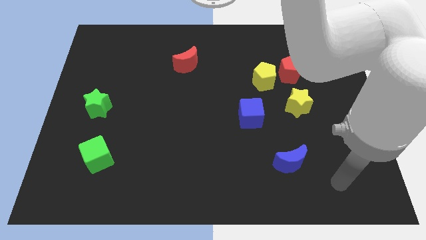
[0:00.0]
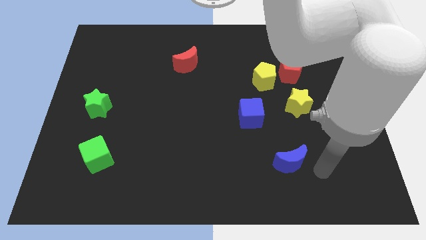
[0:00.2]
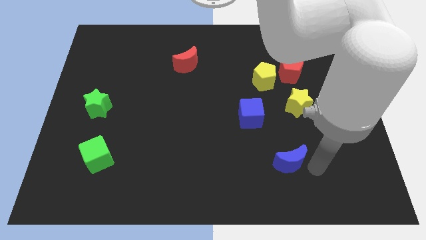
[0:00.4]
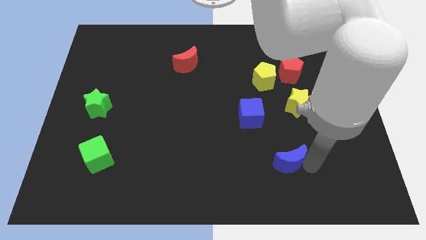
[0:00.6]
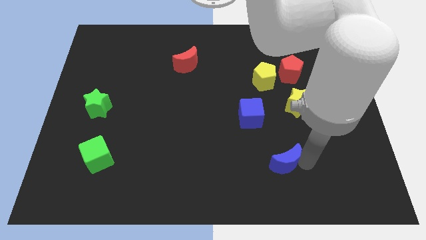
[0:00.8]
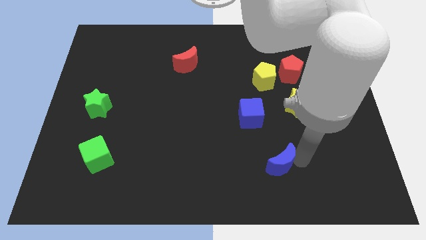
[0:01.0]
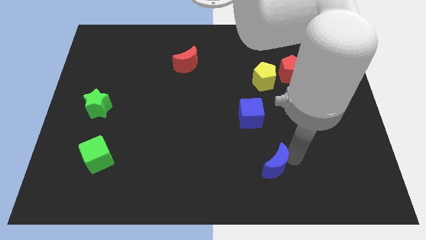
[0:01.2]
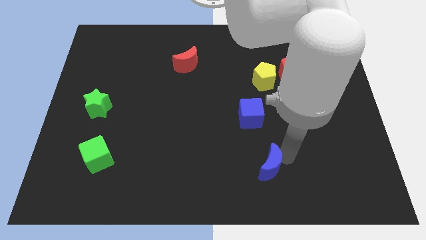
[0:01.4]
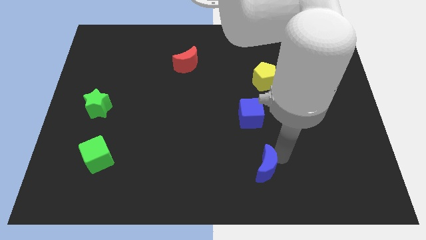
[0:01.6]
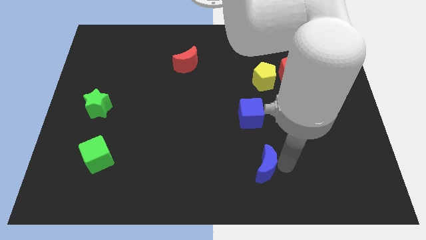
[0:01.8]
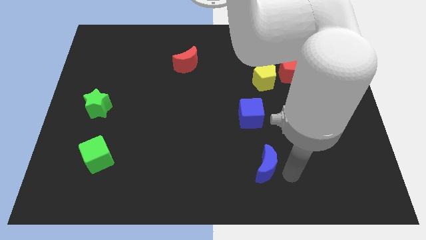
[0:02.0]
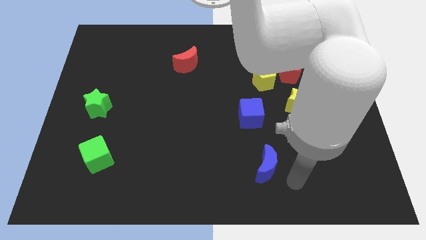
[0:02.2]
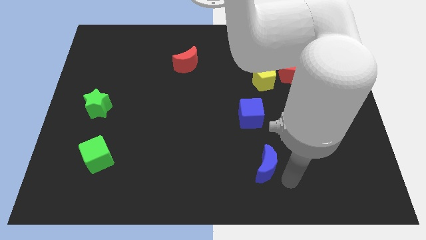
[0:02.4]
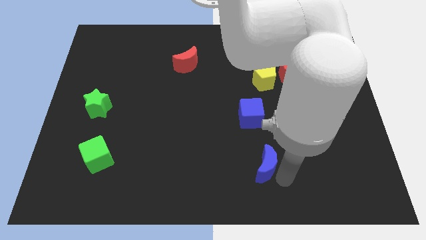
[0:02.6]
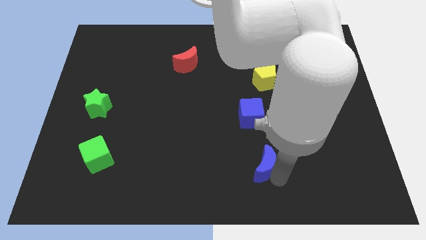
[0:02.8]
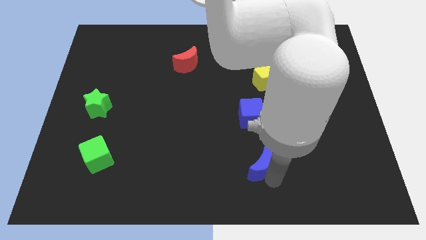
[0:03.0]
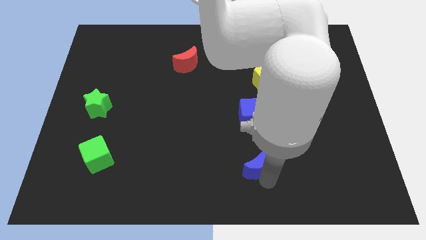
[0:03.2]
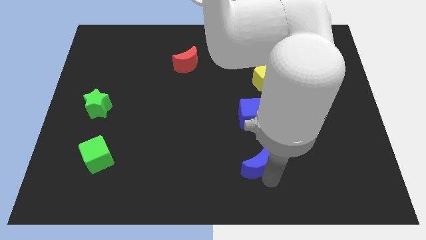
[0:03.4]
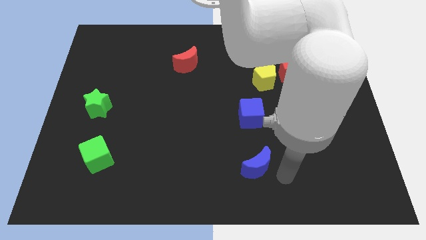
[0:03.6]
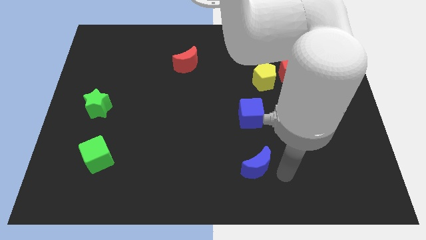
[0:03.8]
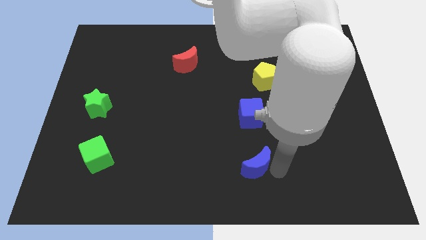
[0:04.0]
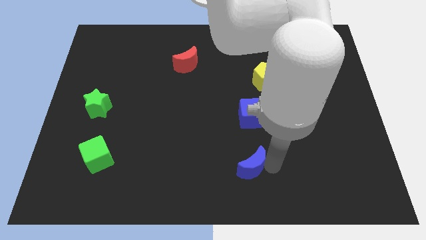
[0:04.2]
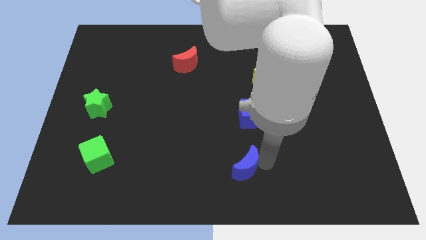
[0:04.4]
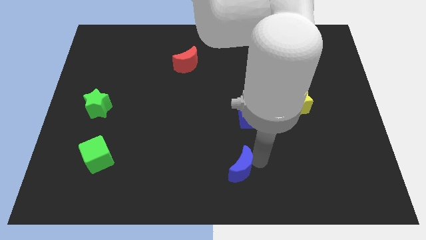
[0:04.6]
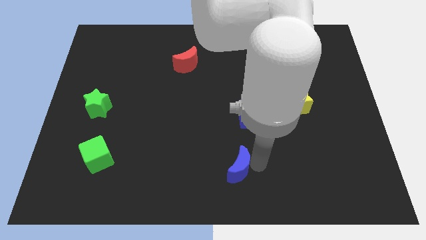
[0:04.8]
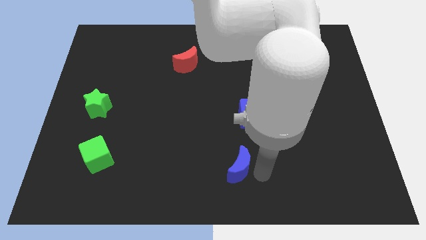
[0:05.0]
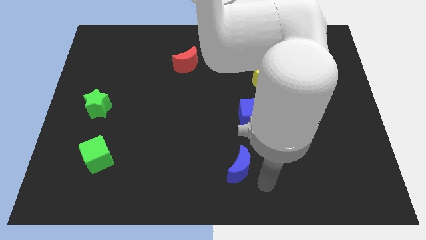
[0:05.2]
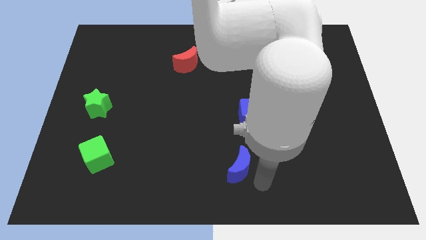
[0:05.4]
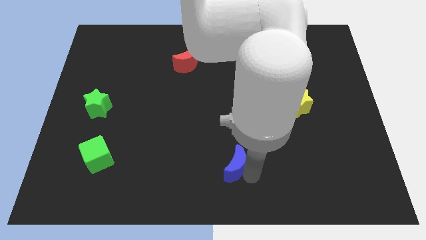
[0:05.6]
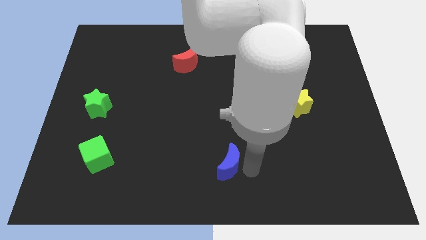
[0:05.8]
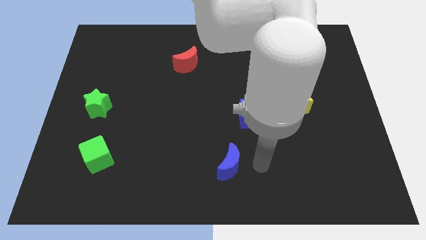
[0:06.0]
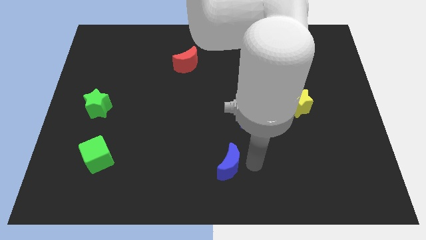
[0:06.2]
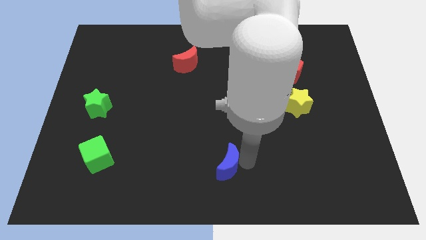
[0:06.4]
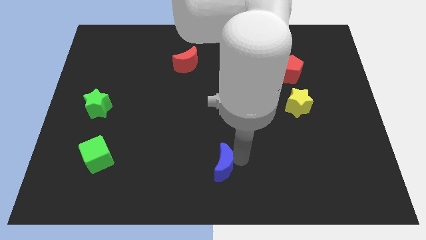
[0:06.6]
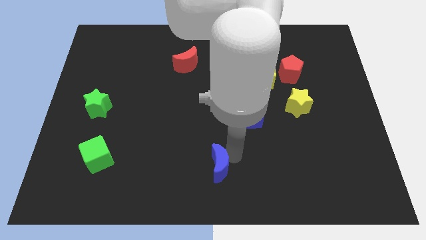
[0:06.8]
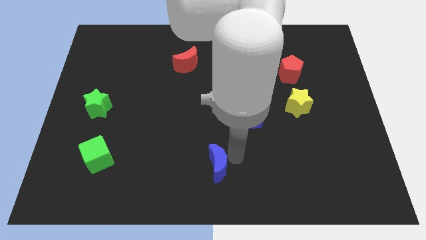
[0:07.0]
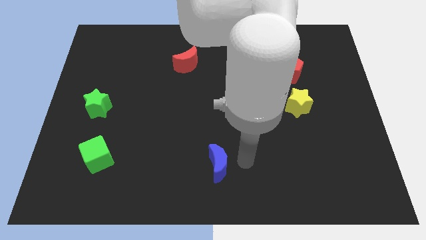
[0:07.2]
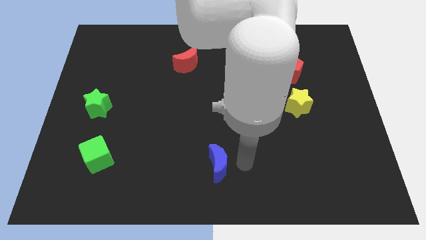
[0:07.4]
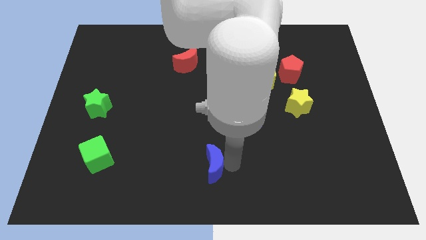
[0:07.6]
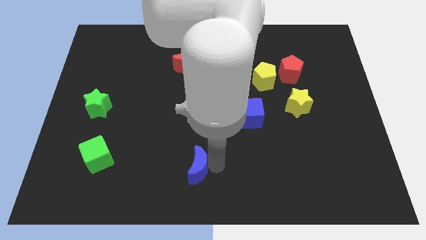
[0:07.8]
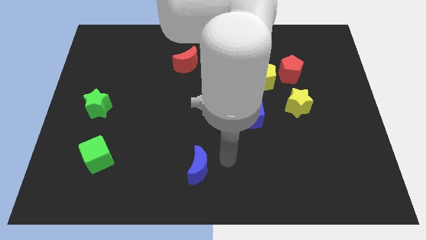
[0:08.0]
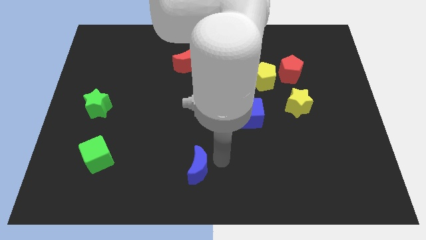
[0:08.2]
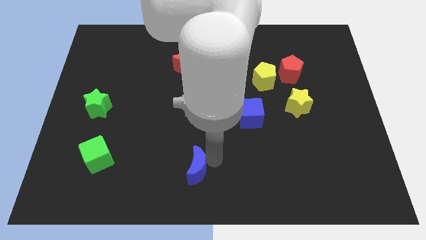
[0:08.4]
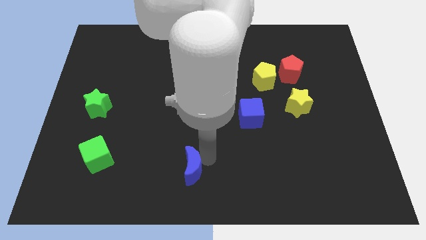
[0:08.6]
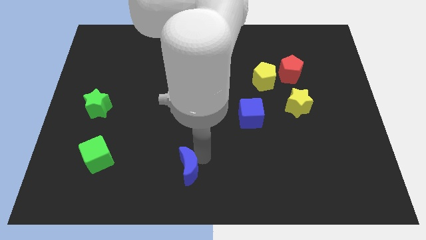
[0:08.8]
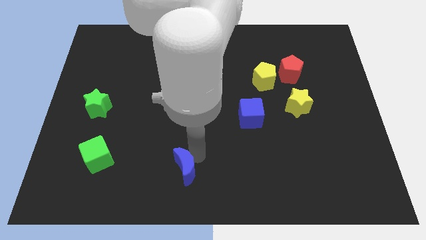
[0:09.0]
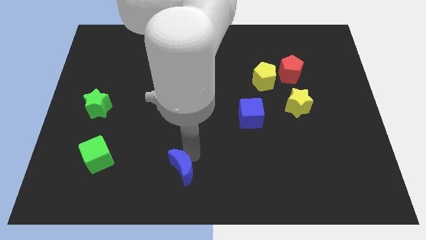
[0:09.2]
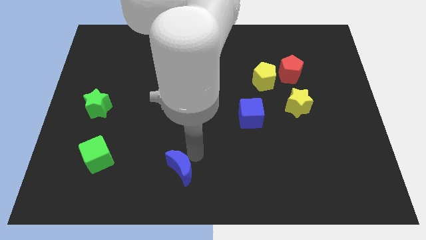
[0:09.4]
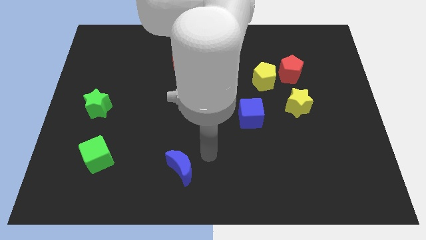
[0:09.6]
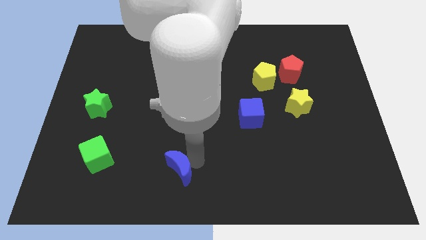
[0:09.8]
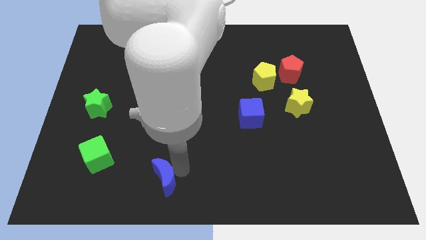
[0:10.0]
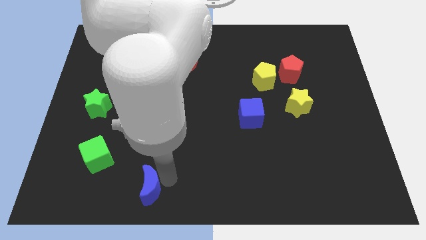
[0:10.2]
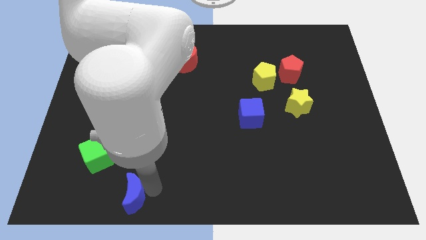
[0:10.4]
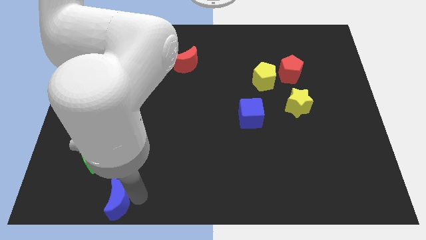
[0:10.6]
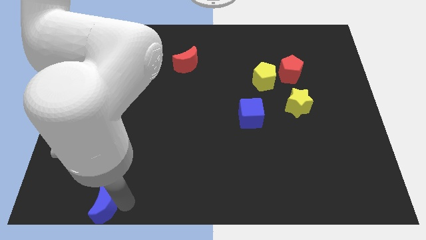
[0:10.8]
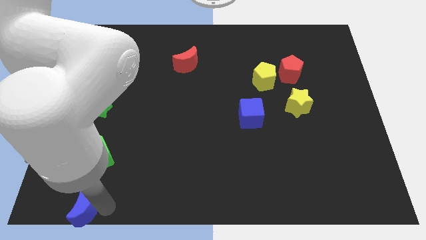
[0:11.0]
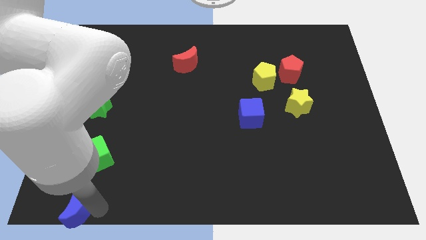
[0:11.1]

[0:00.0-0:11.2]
move the blue moon to the bottom left
